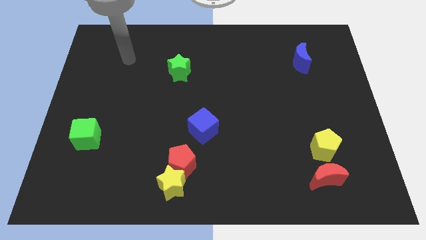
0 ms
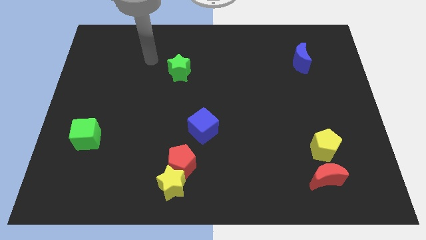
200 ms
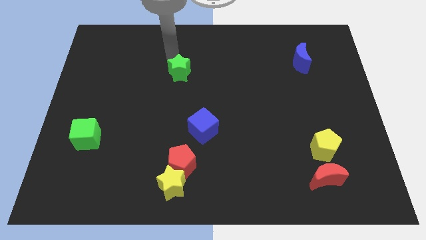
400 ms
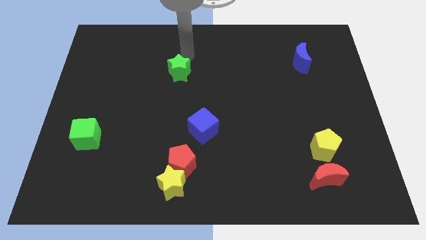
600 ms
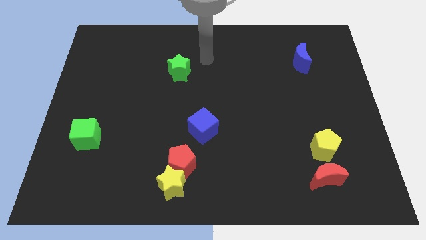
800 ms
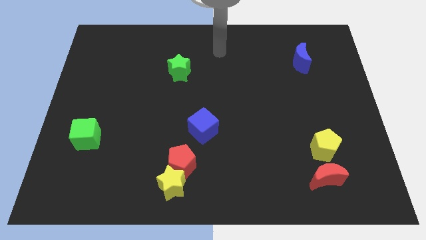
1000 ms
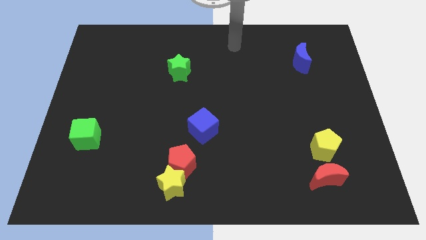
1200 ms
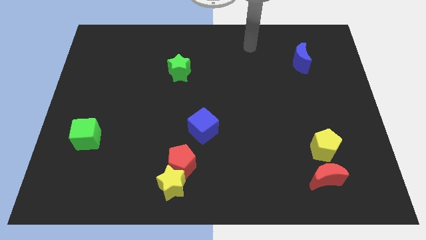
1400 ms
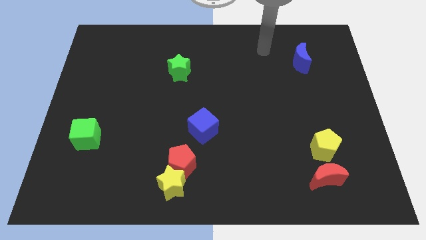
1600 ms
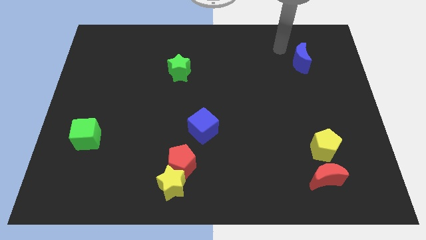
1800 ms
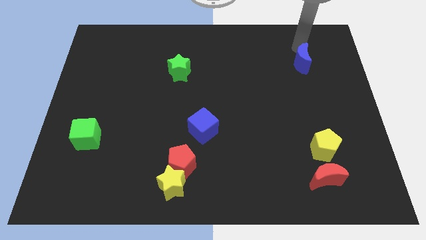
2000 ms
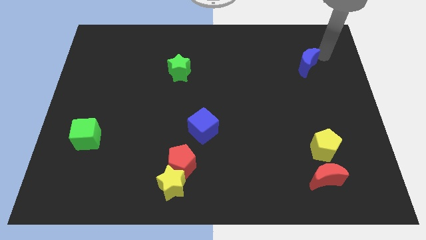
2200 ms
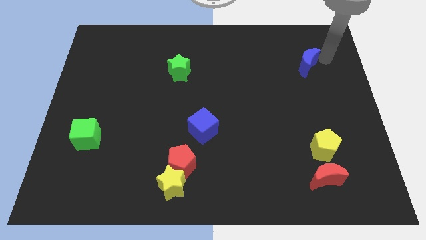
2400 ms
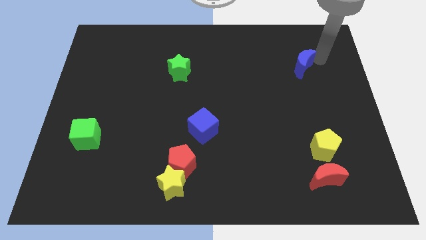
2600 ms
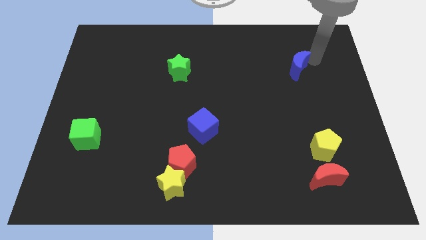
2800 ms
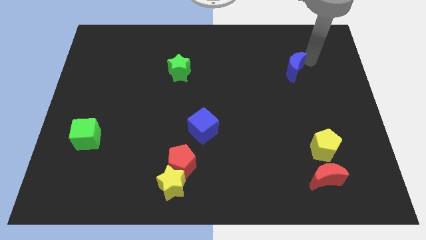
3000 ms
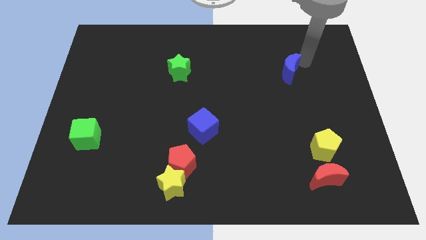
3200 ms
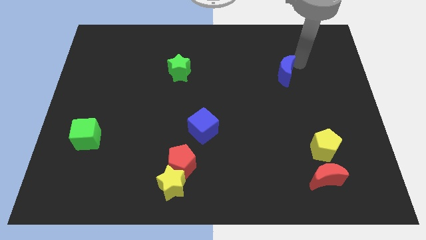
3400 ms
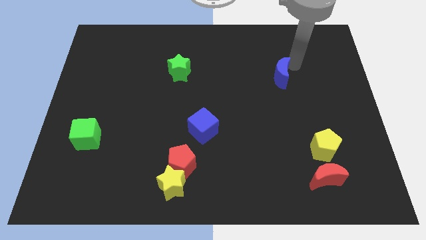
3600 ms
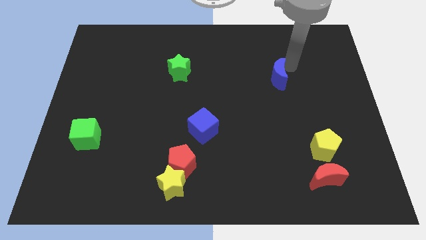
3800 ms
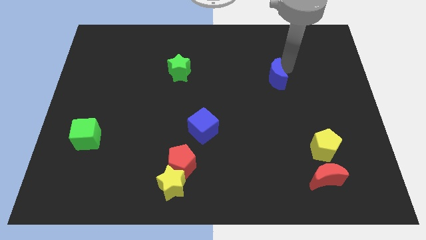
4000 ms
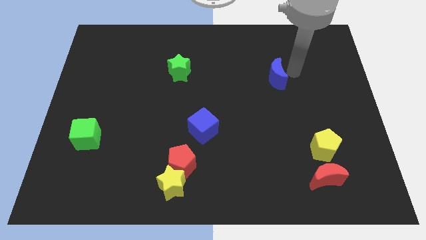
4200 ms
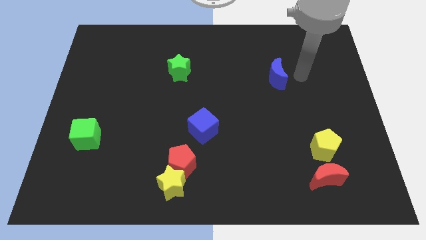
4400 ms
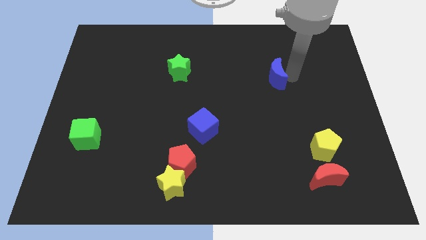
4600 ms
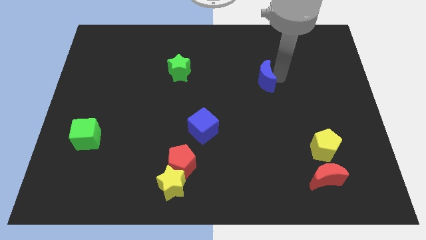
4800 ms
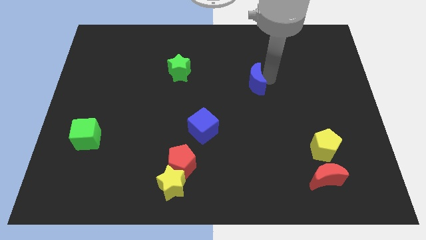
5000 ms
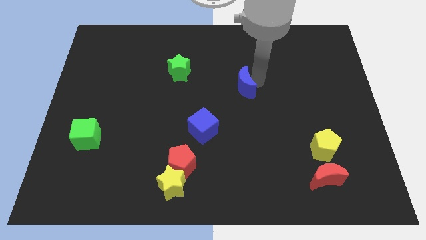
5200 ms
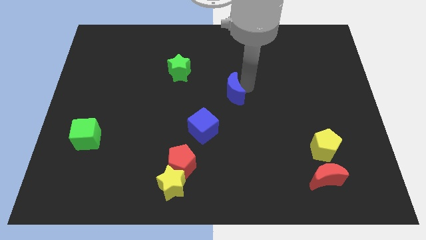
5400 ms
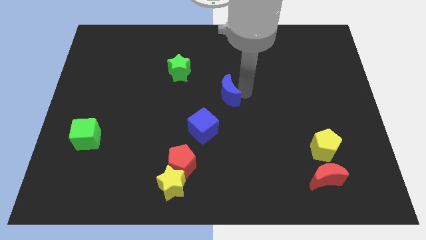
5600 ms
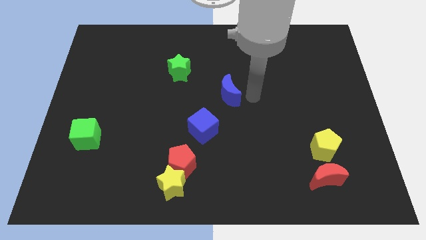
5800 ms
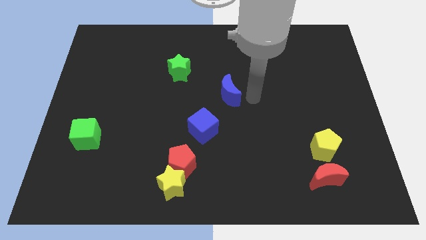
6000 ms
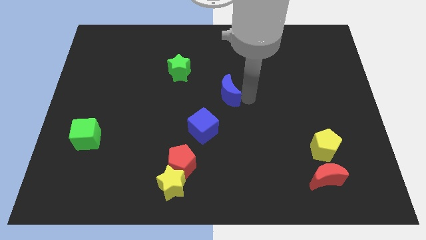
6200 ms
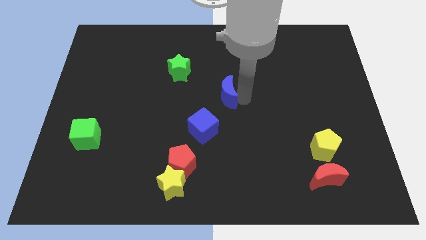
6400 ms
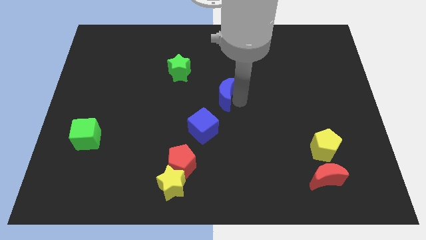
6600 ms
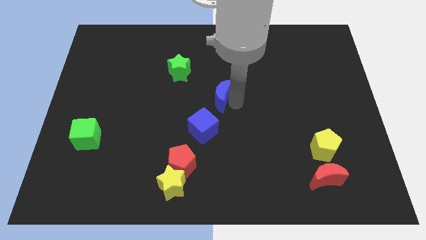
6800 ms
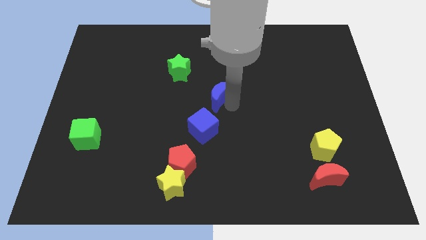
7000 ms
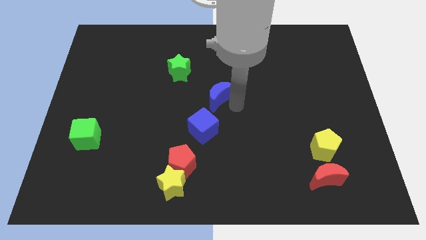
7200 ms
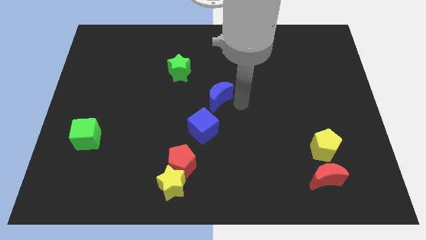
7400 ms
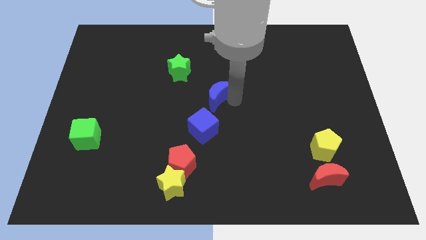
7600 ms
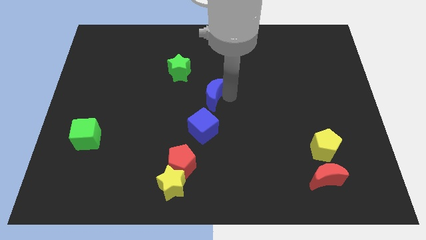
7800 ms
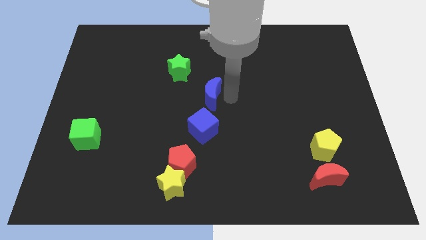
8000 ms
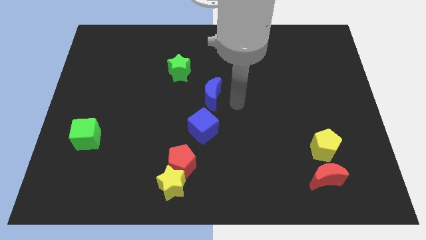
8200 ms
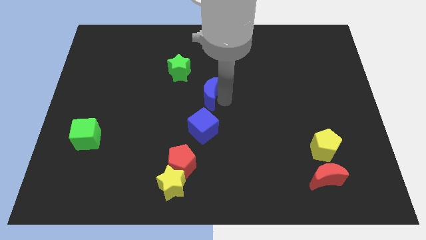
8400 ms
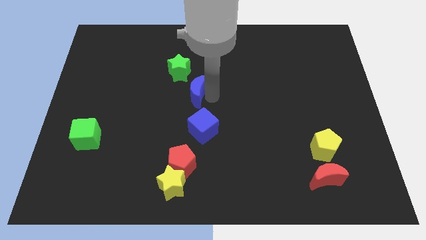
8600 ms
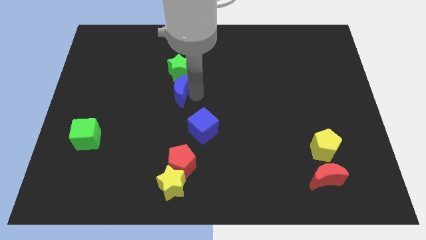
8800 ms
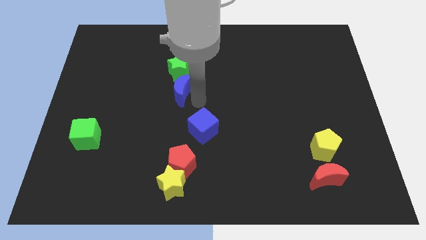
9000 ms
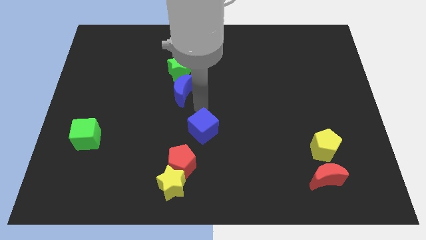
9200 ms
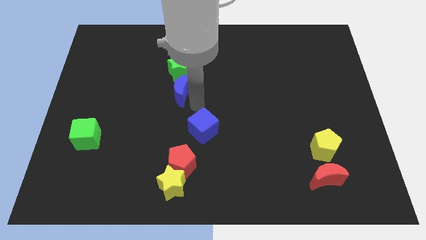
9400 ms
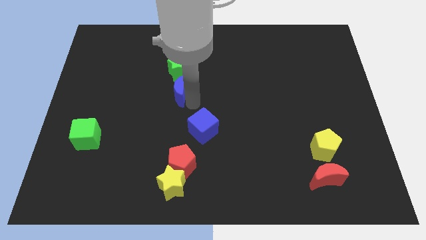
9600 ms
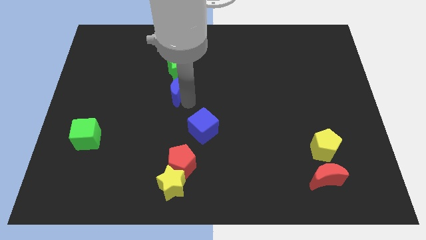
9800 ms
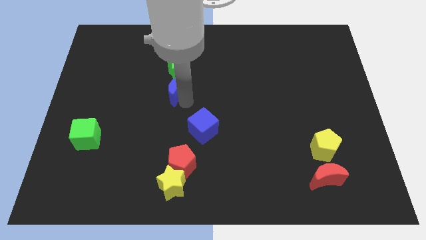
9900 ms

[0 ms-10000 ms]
slide the blue moon diagonally down and to the left of the green star

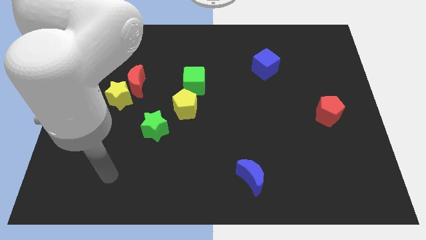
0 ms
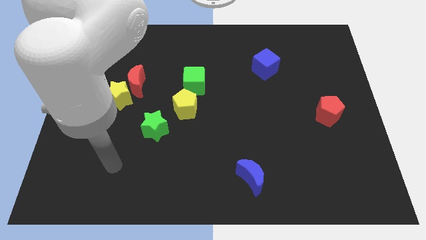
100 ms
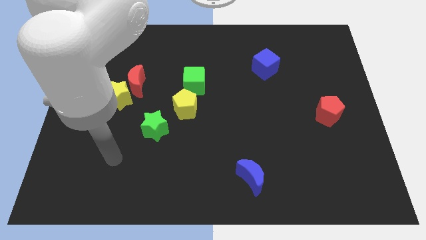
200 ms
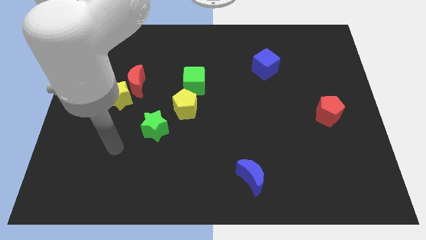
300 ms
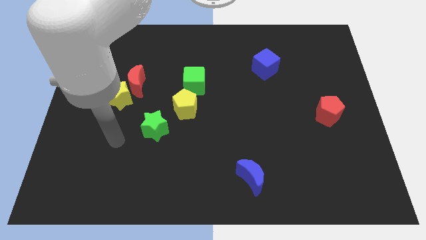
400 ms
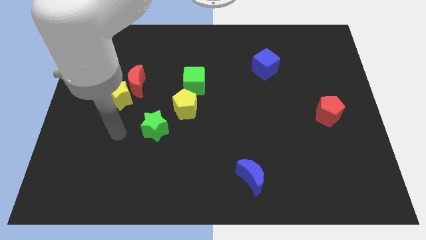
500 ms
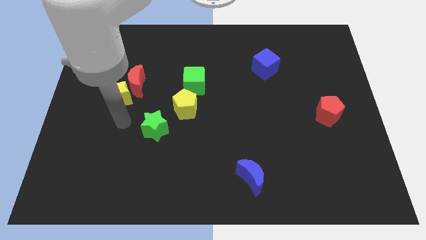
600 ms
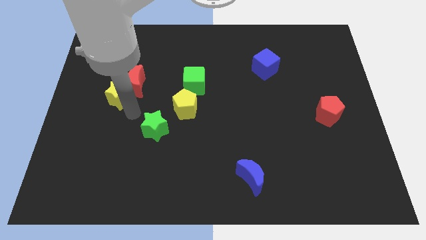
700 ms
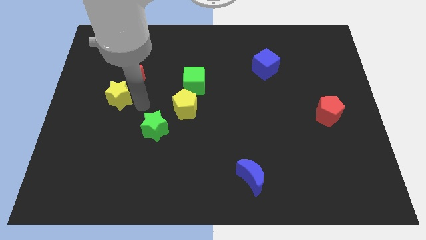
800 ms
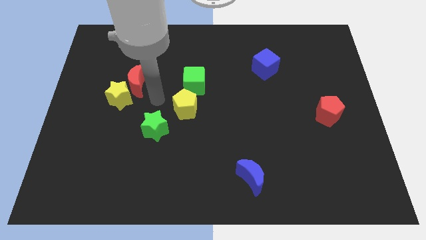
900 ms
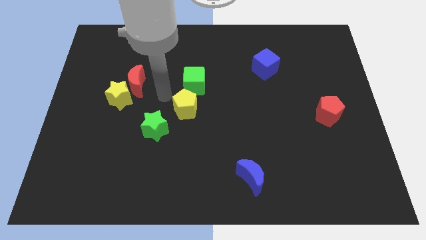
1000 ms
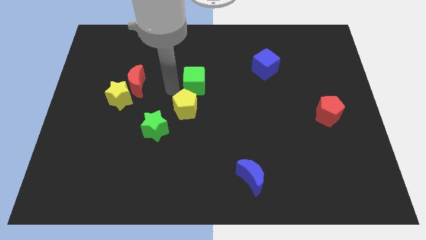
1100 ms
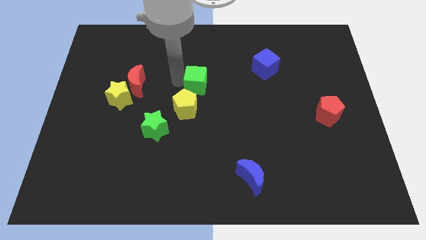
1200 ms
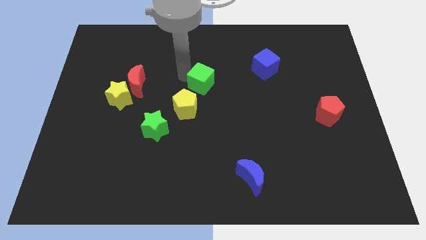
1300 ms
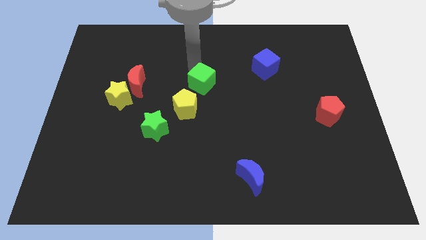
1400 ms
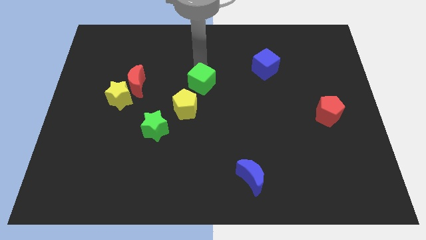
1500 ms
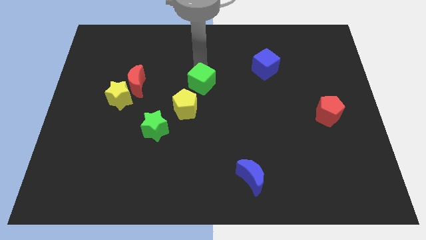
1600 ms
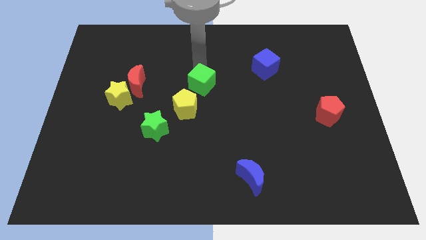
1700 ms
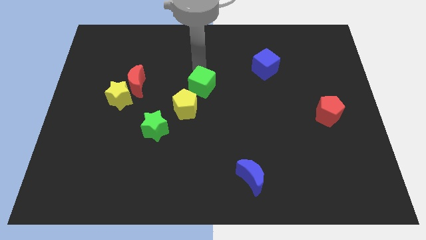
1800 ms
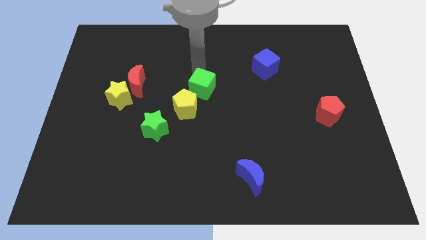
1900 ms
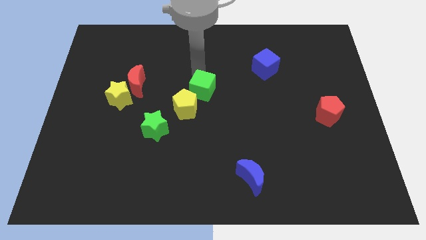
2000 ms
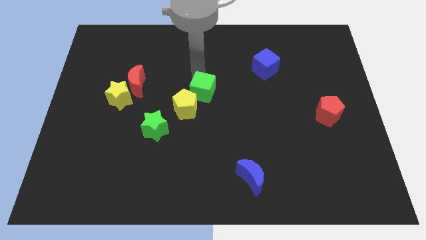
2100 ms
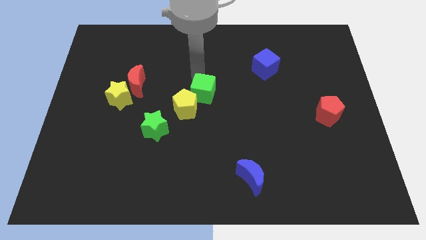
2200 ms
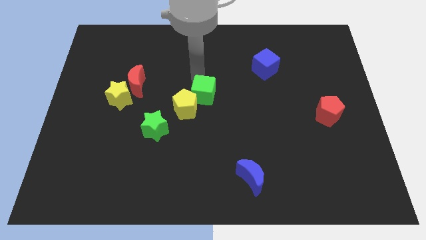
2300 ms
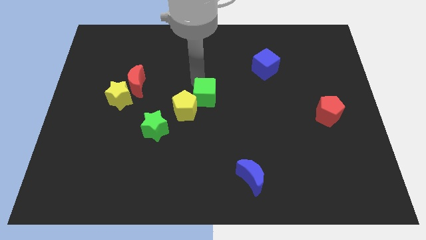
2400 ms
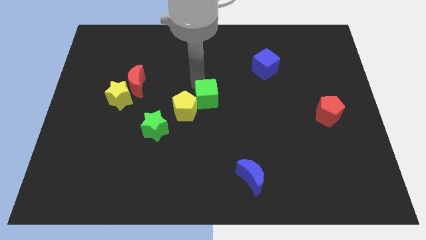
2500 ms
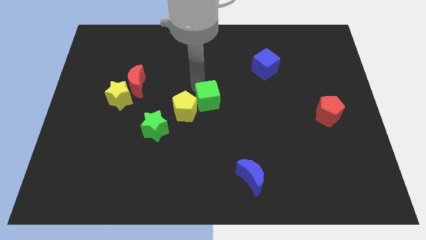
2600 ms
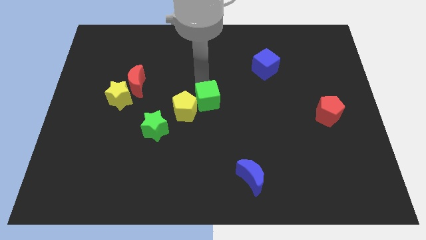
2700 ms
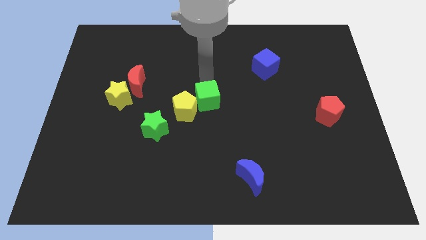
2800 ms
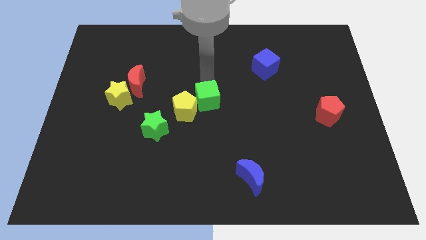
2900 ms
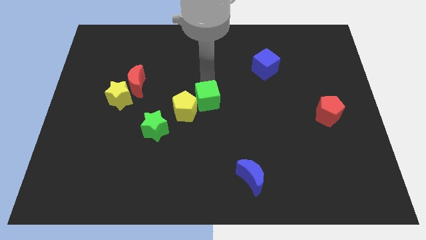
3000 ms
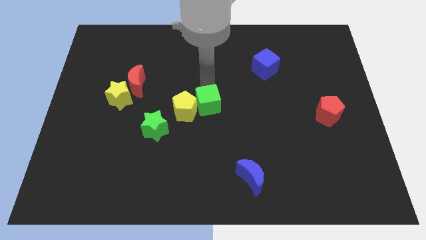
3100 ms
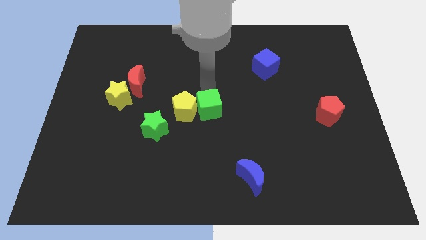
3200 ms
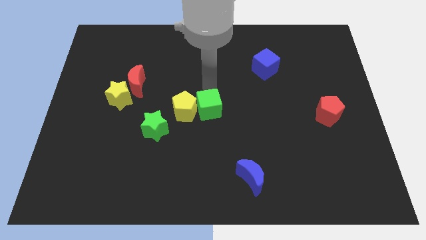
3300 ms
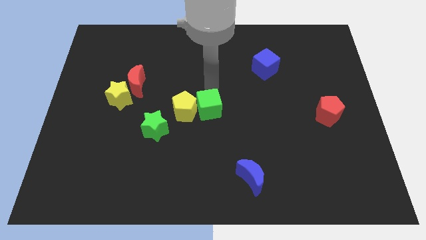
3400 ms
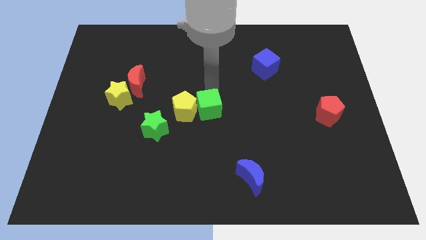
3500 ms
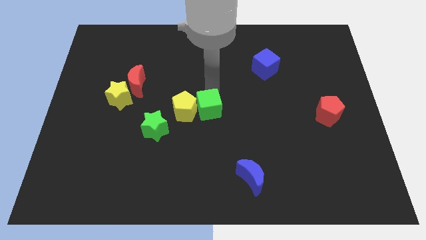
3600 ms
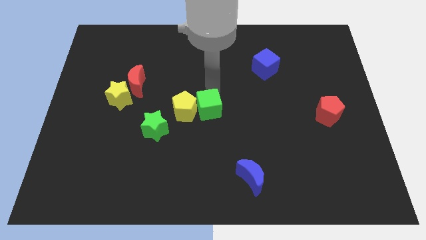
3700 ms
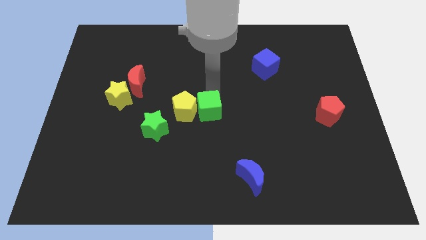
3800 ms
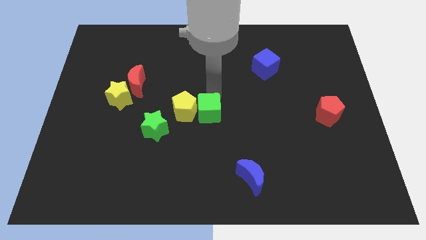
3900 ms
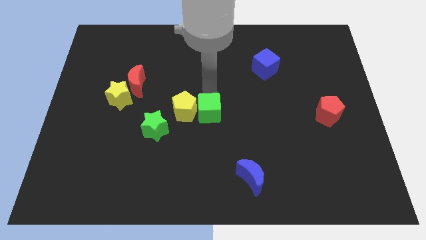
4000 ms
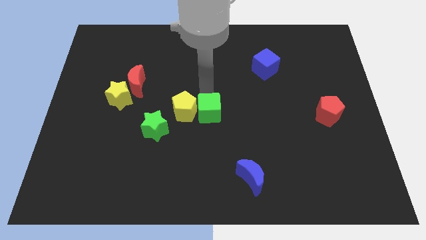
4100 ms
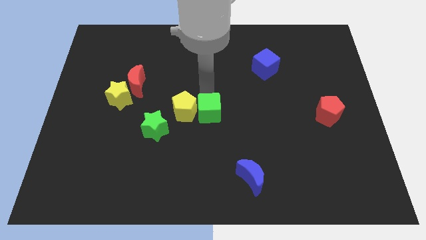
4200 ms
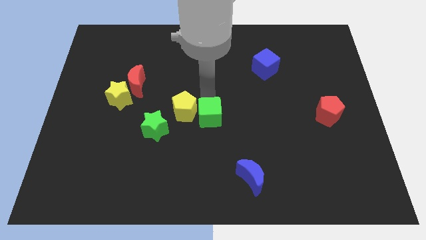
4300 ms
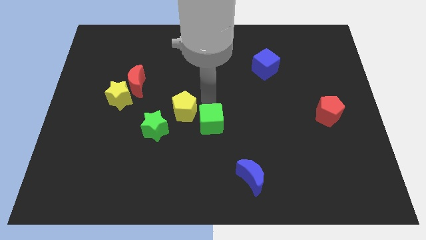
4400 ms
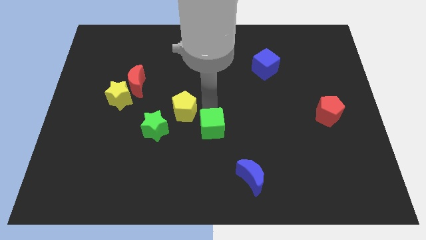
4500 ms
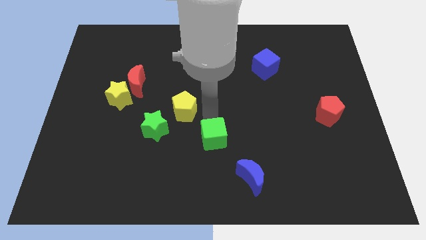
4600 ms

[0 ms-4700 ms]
push the green cube diagonally up and to the left of the blue moon
